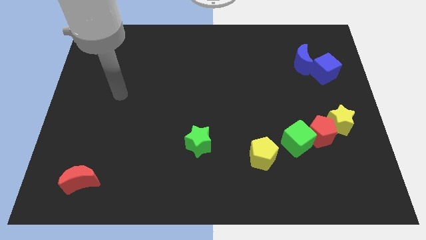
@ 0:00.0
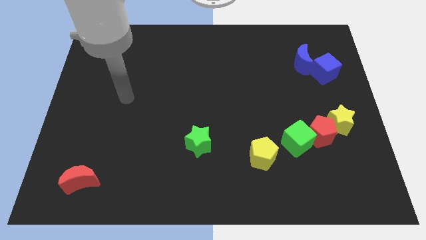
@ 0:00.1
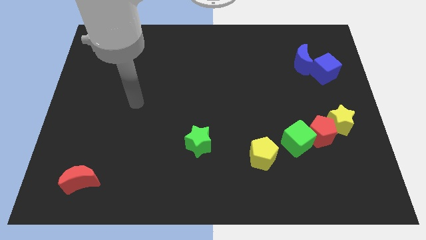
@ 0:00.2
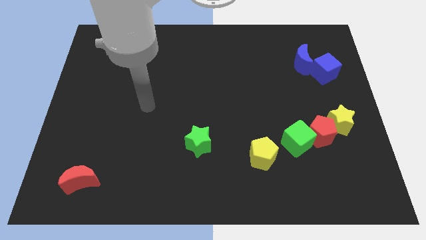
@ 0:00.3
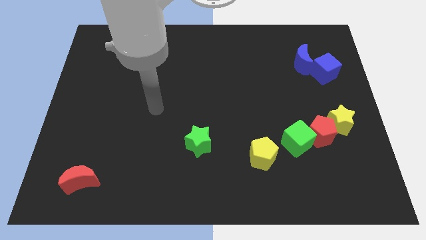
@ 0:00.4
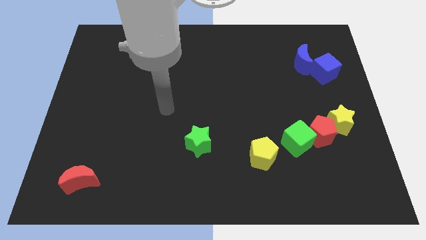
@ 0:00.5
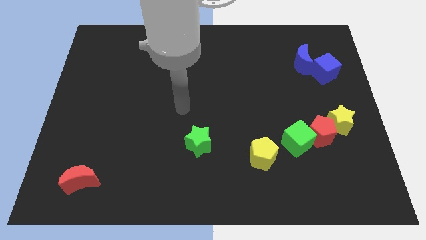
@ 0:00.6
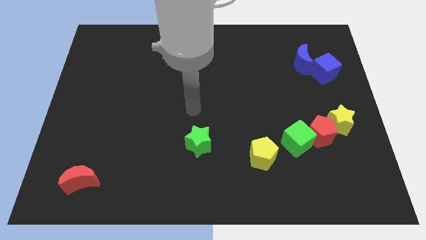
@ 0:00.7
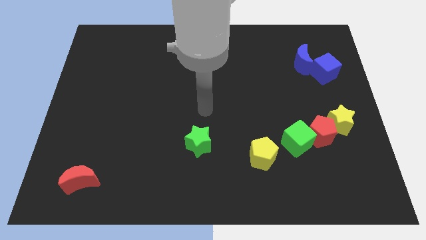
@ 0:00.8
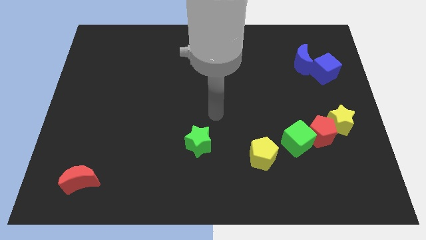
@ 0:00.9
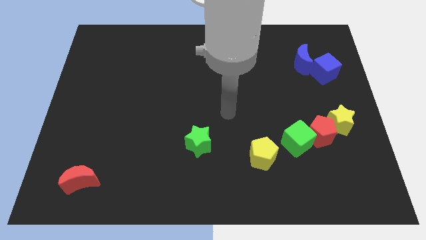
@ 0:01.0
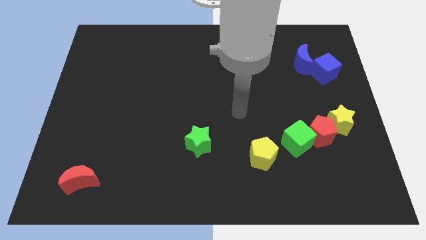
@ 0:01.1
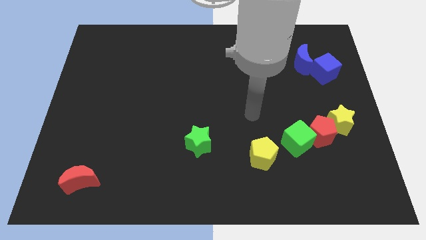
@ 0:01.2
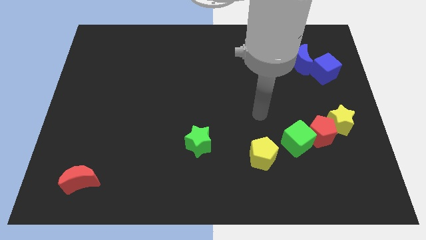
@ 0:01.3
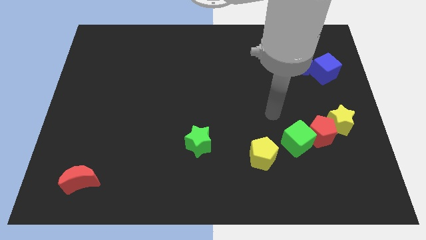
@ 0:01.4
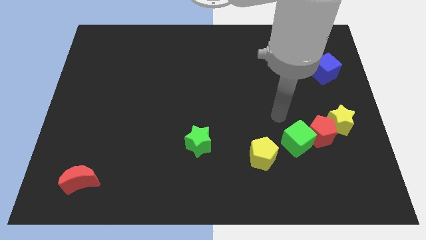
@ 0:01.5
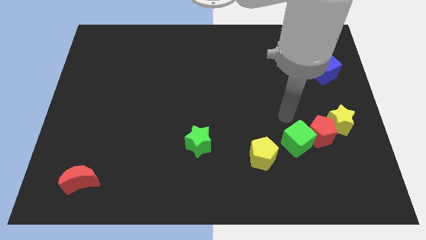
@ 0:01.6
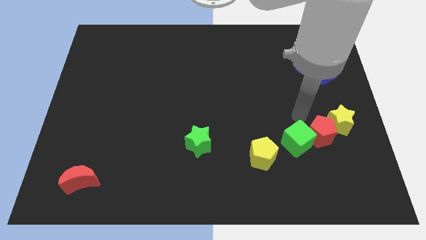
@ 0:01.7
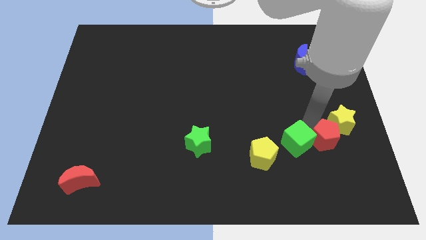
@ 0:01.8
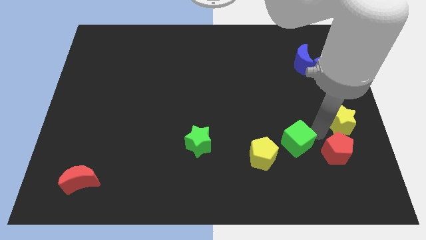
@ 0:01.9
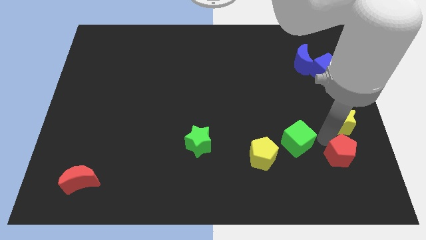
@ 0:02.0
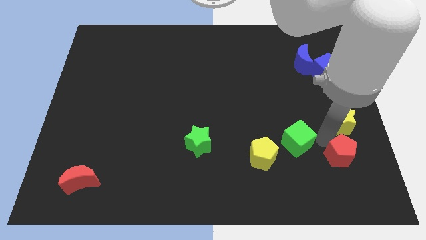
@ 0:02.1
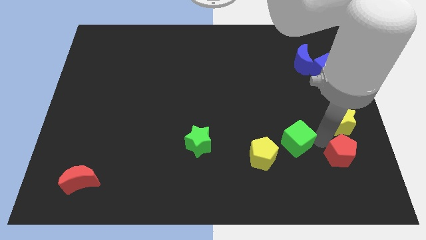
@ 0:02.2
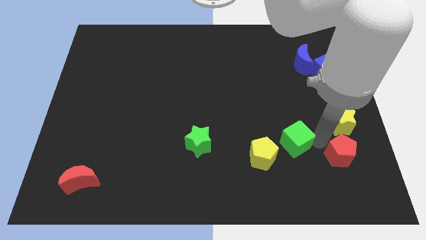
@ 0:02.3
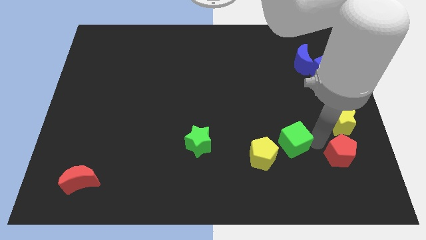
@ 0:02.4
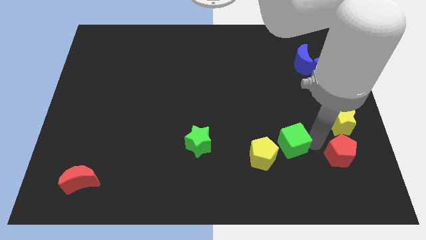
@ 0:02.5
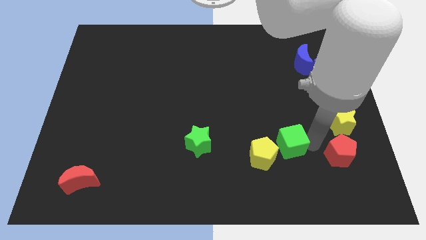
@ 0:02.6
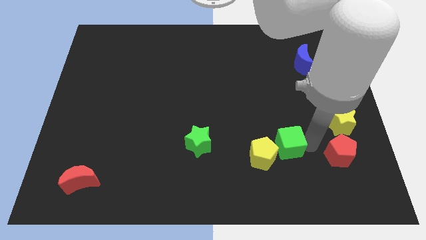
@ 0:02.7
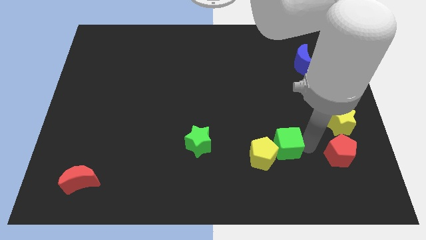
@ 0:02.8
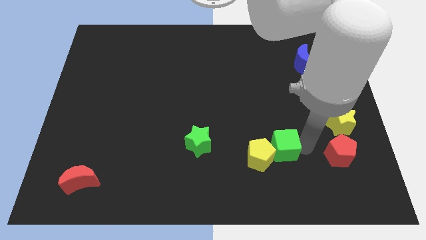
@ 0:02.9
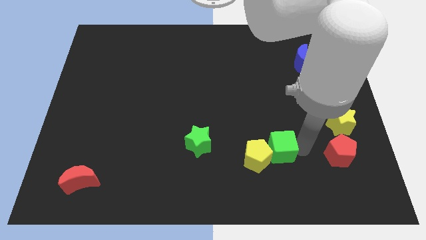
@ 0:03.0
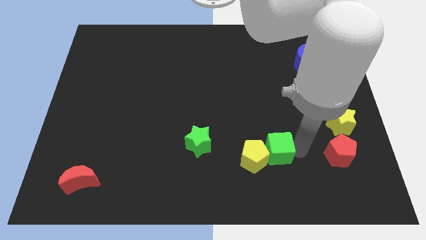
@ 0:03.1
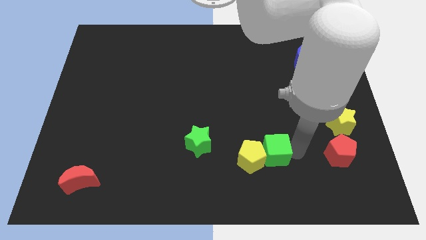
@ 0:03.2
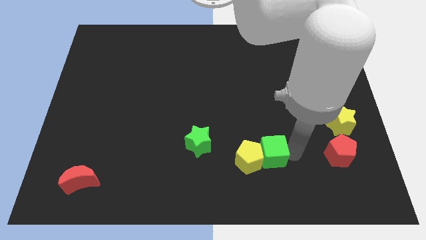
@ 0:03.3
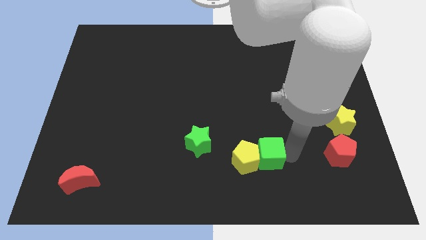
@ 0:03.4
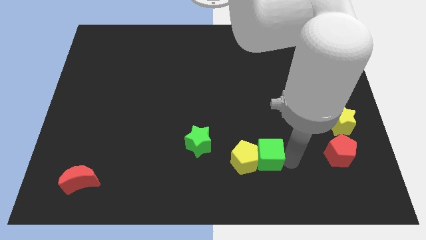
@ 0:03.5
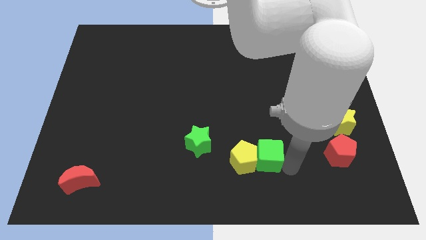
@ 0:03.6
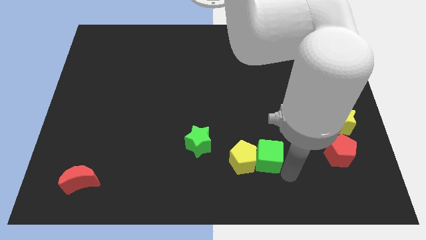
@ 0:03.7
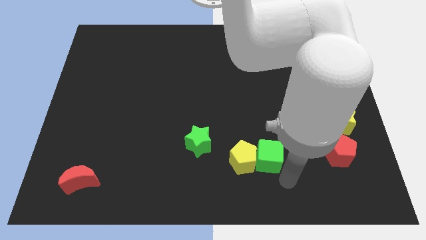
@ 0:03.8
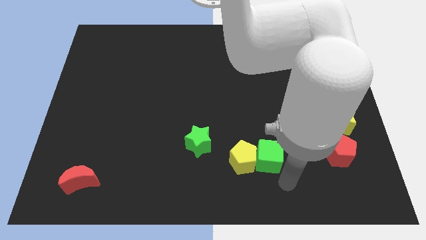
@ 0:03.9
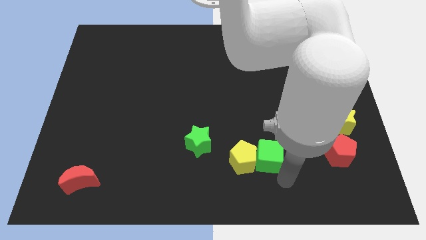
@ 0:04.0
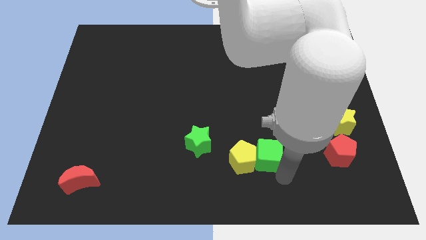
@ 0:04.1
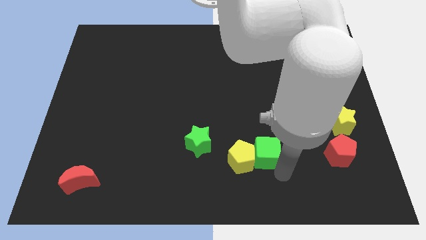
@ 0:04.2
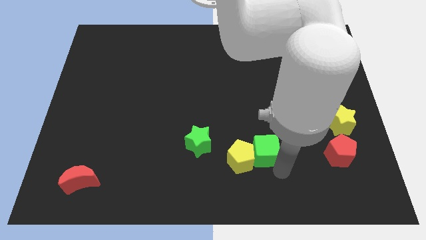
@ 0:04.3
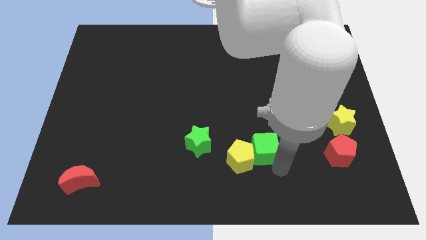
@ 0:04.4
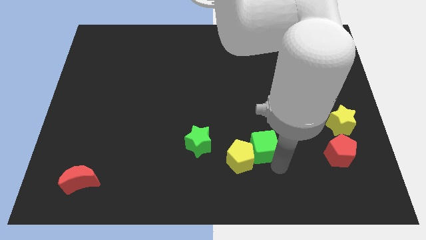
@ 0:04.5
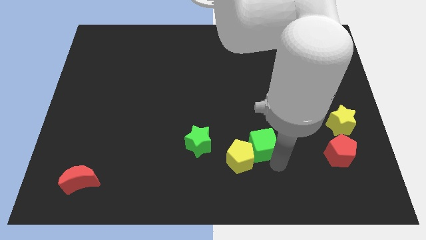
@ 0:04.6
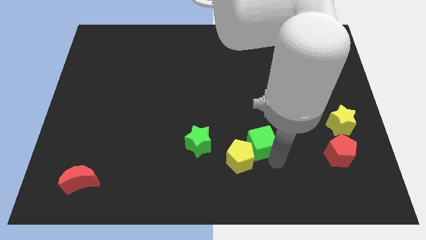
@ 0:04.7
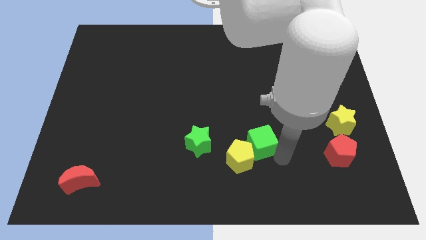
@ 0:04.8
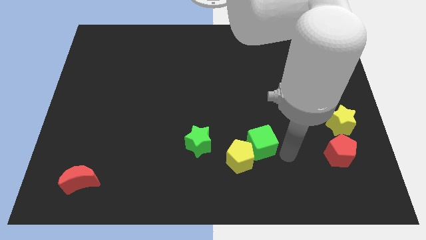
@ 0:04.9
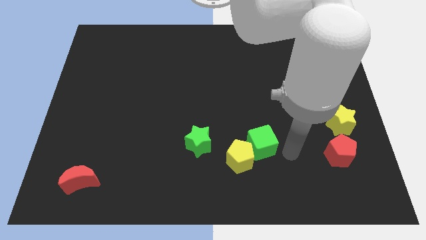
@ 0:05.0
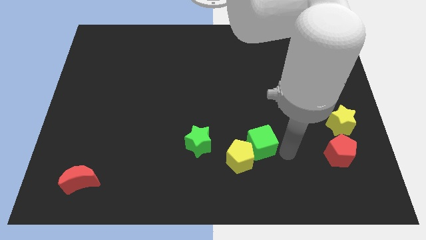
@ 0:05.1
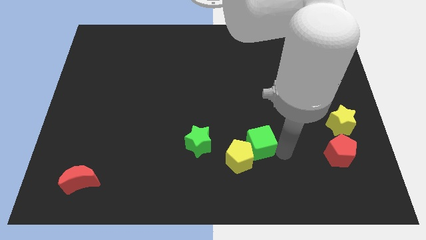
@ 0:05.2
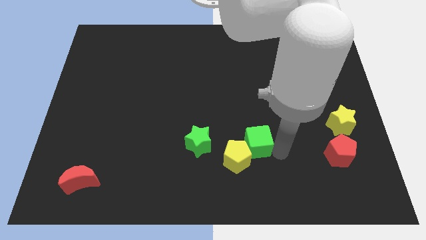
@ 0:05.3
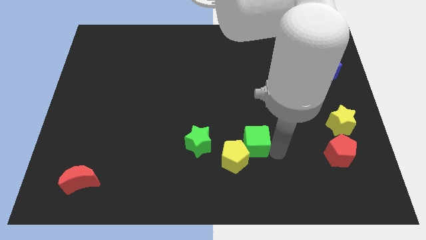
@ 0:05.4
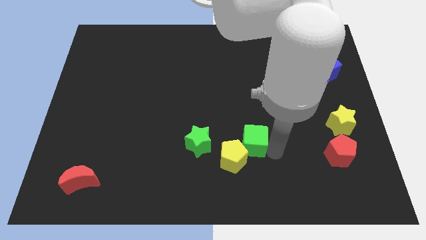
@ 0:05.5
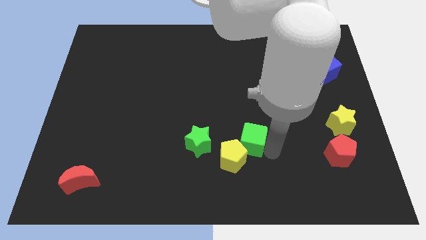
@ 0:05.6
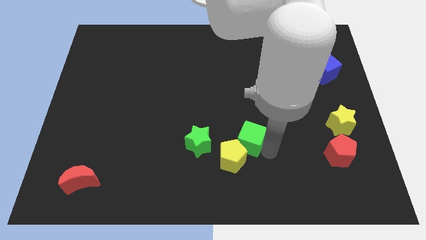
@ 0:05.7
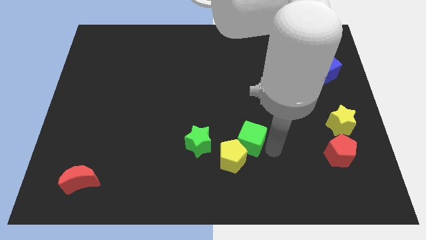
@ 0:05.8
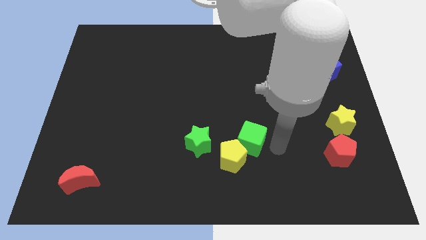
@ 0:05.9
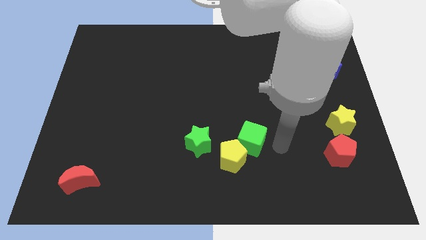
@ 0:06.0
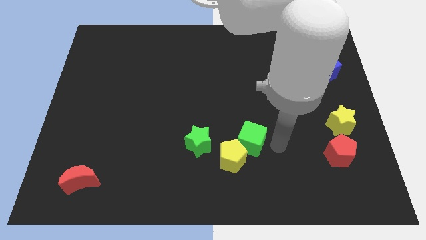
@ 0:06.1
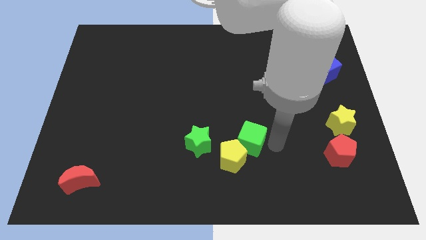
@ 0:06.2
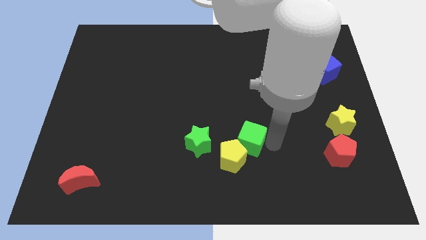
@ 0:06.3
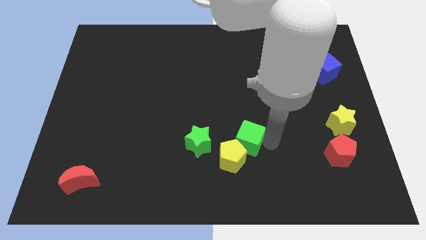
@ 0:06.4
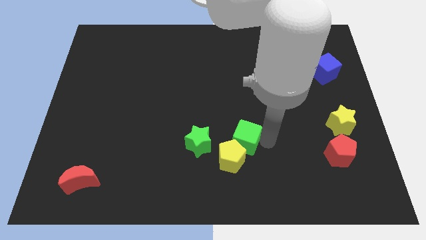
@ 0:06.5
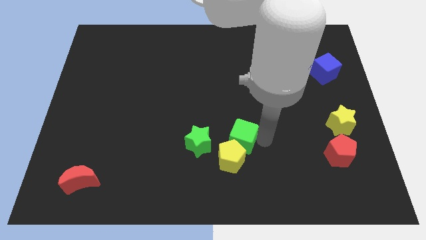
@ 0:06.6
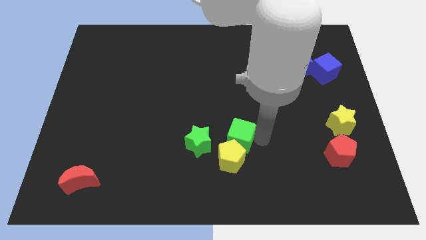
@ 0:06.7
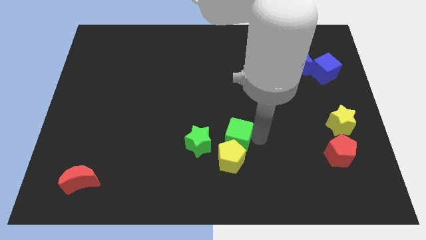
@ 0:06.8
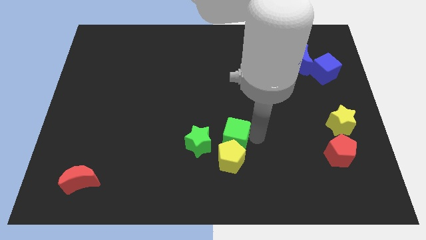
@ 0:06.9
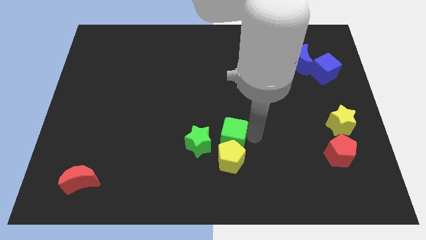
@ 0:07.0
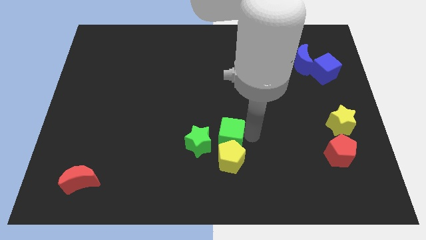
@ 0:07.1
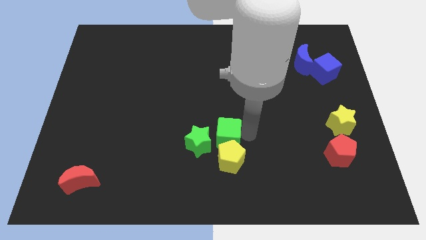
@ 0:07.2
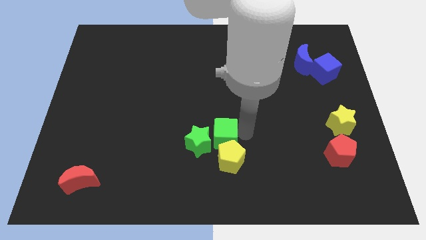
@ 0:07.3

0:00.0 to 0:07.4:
put the green cube to the green star
